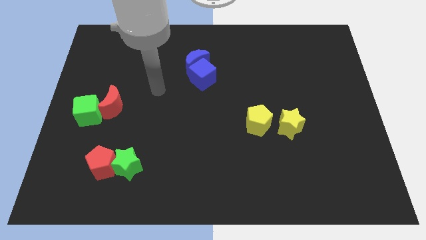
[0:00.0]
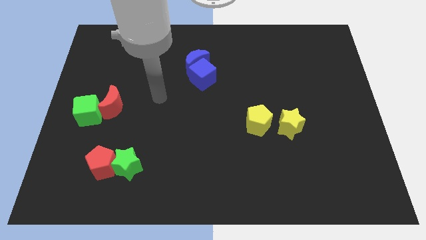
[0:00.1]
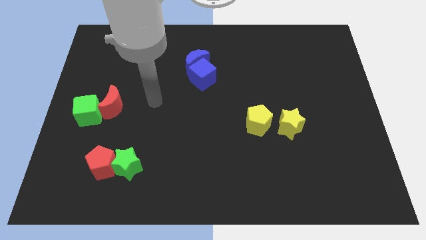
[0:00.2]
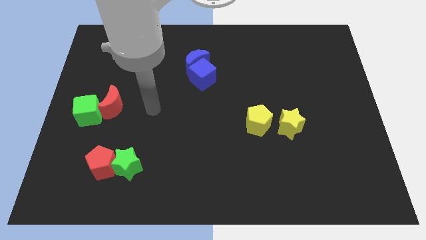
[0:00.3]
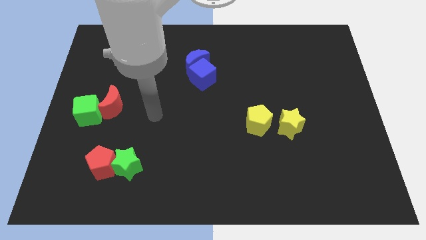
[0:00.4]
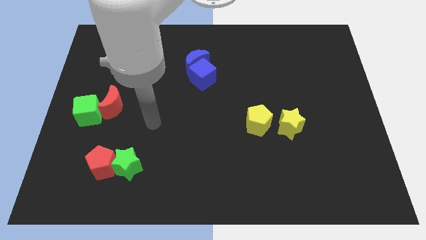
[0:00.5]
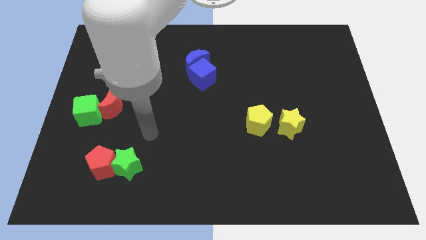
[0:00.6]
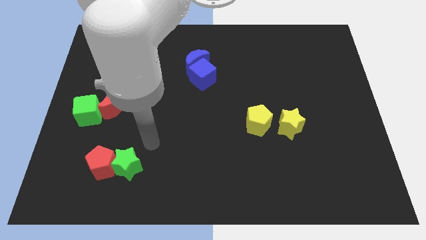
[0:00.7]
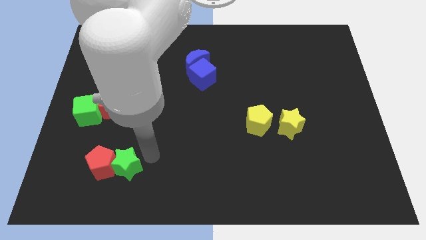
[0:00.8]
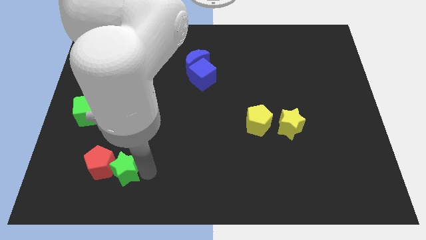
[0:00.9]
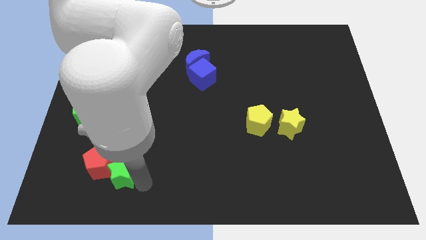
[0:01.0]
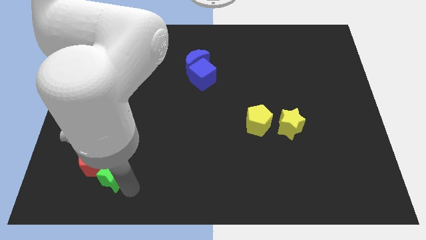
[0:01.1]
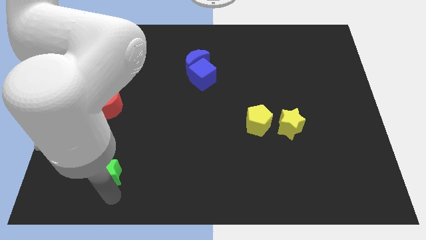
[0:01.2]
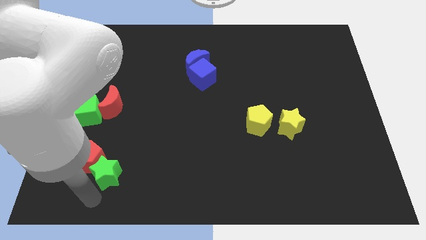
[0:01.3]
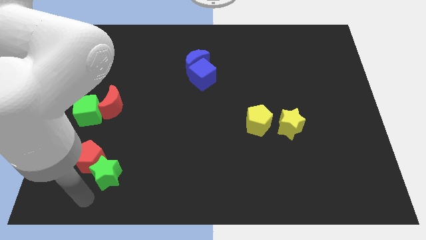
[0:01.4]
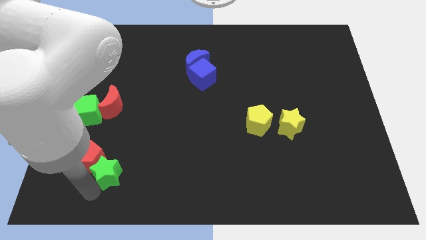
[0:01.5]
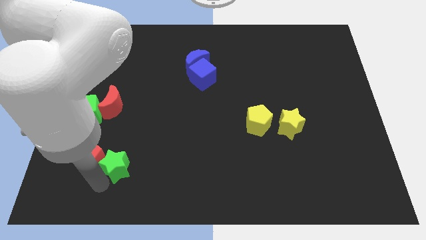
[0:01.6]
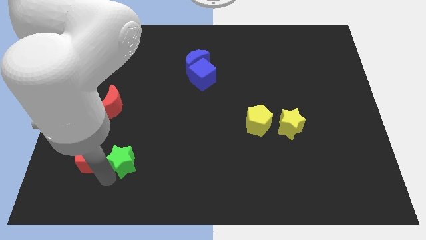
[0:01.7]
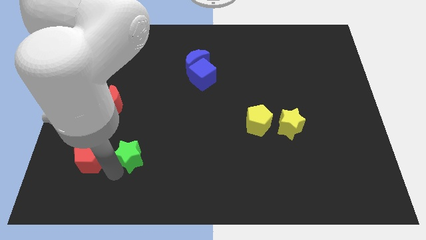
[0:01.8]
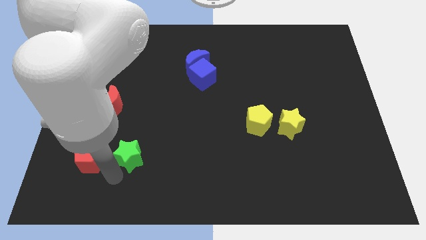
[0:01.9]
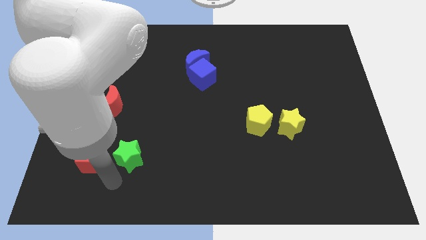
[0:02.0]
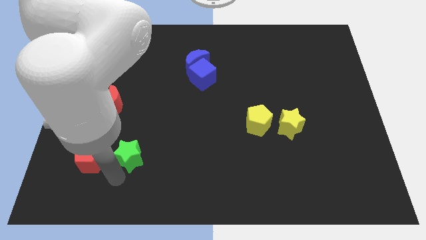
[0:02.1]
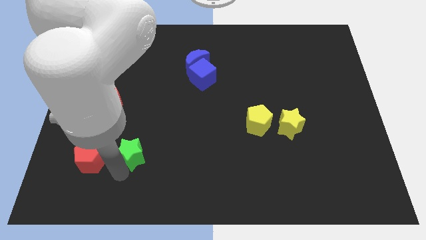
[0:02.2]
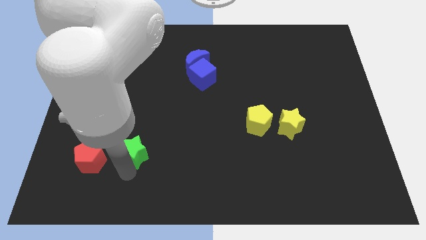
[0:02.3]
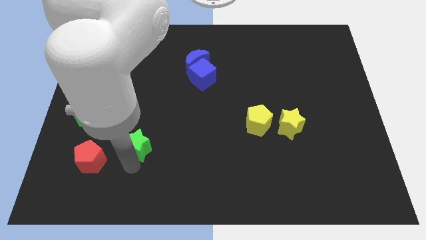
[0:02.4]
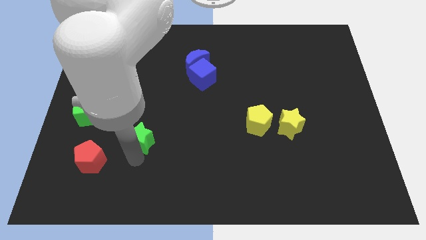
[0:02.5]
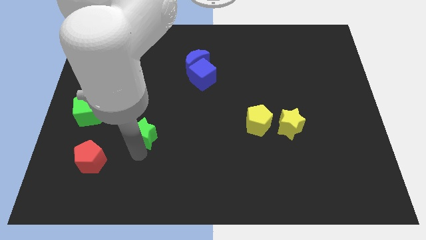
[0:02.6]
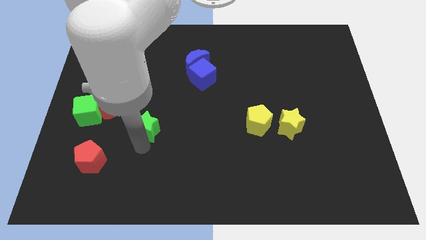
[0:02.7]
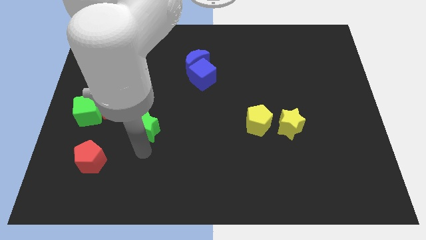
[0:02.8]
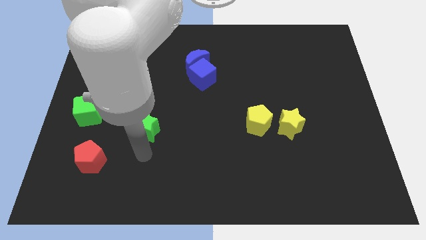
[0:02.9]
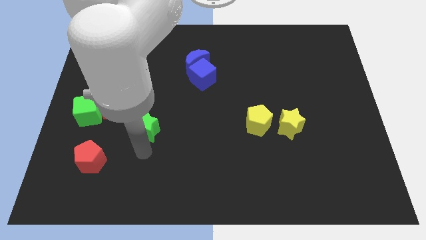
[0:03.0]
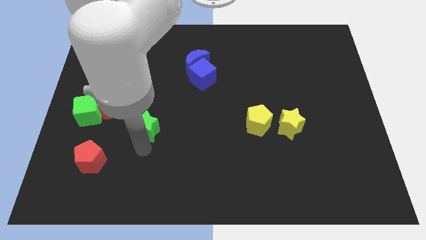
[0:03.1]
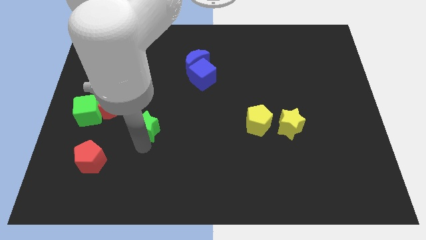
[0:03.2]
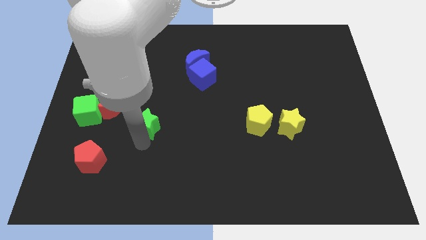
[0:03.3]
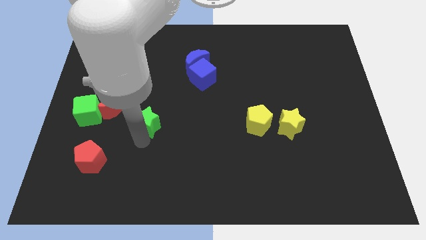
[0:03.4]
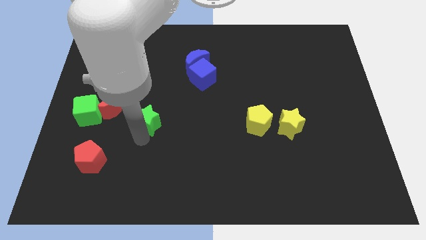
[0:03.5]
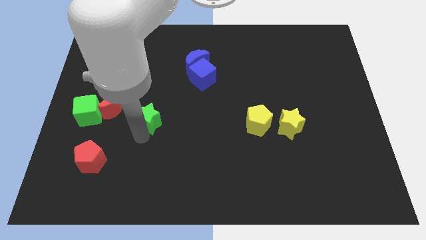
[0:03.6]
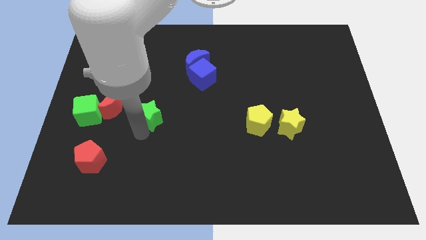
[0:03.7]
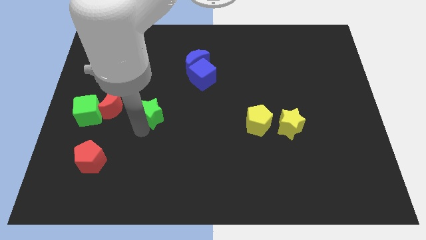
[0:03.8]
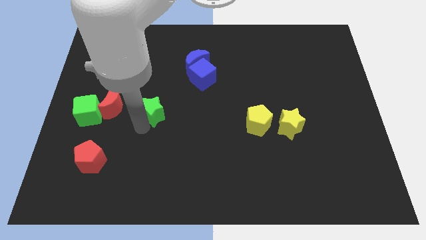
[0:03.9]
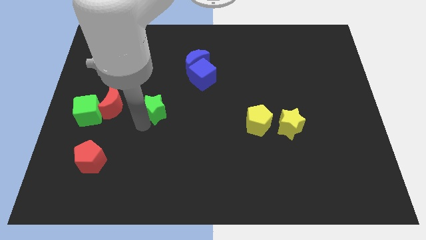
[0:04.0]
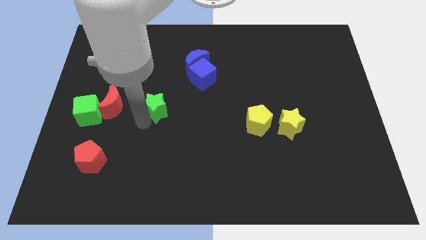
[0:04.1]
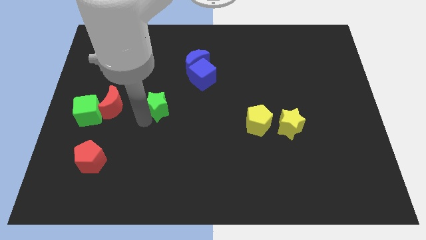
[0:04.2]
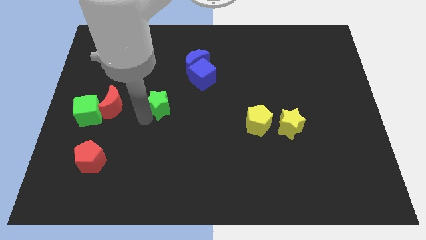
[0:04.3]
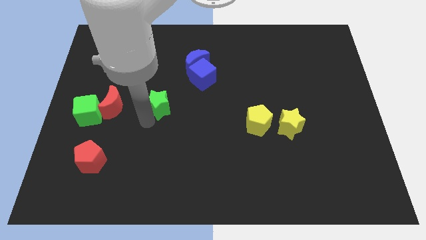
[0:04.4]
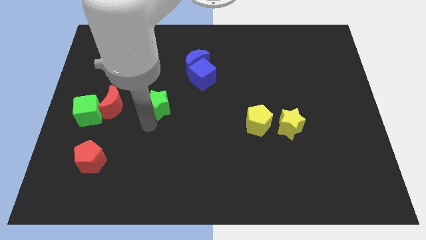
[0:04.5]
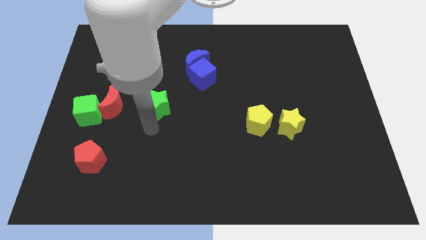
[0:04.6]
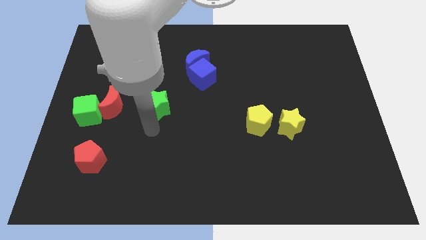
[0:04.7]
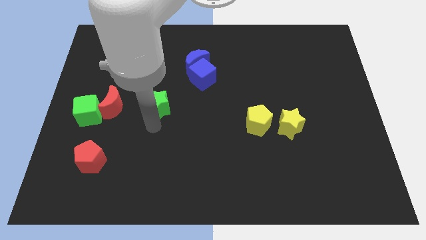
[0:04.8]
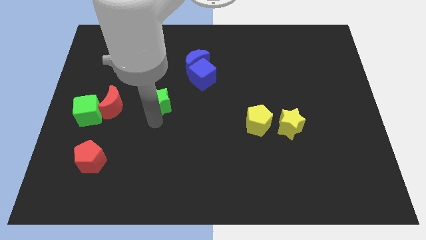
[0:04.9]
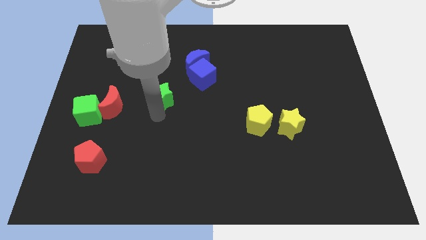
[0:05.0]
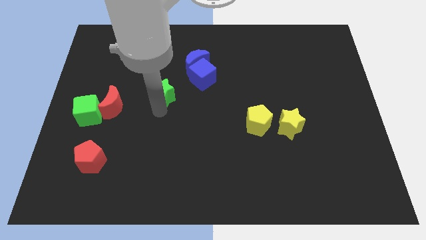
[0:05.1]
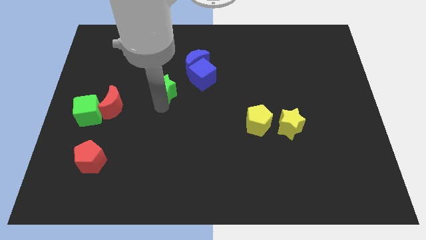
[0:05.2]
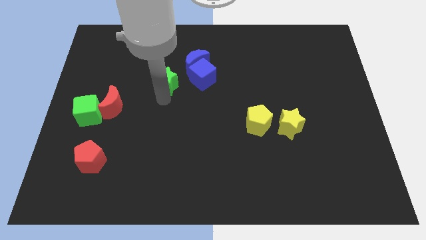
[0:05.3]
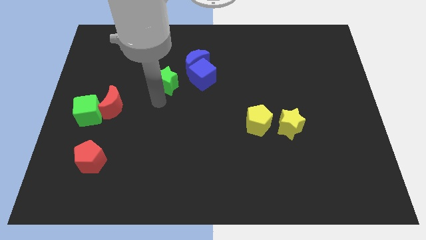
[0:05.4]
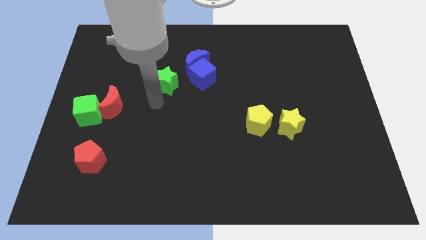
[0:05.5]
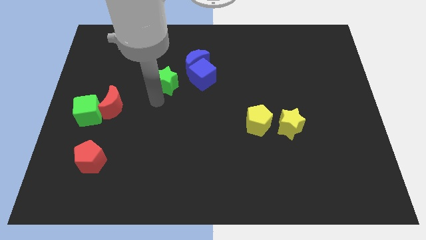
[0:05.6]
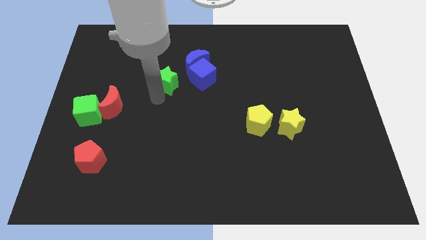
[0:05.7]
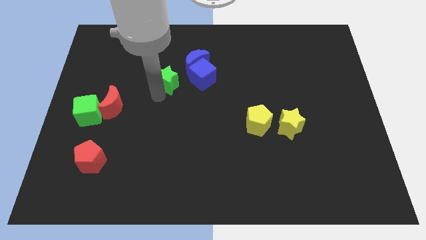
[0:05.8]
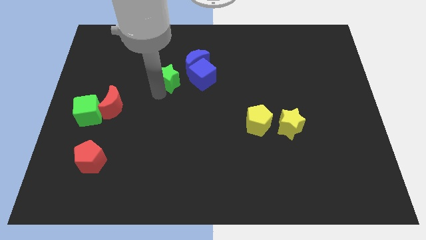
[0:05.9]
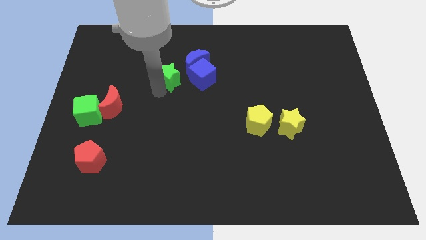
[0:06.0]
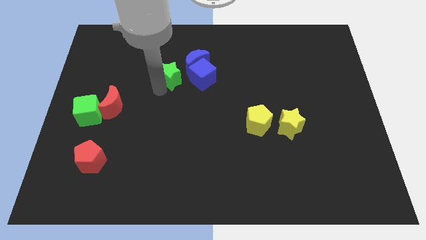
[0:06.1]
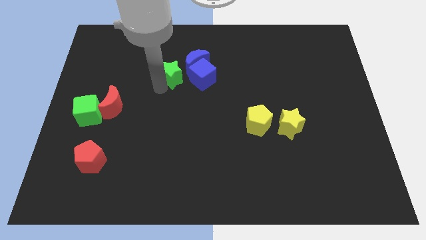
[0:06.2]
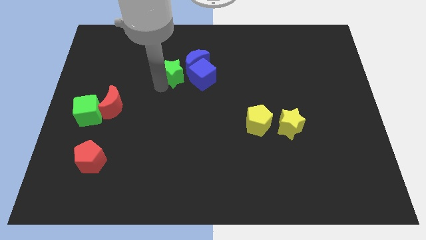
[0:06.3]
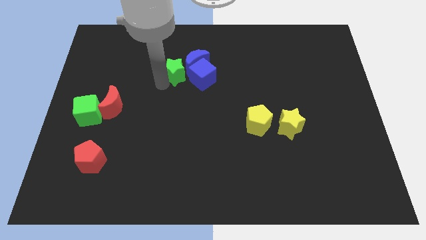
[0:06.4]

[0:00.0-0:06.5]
push the green star to the blue moon

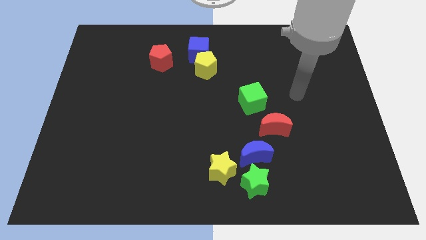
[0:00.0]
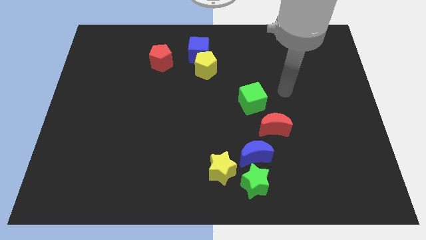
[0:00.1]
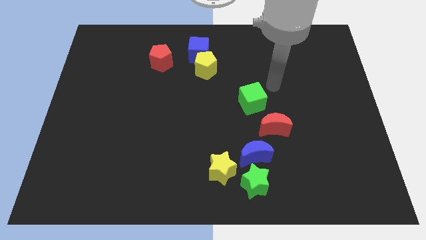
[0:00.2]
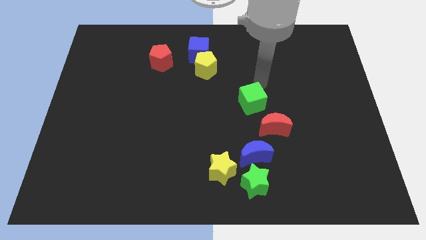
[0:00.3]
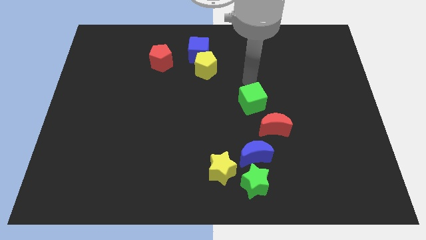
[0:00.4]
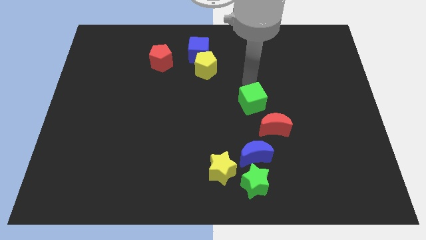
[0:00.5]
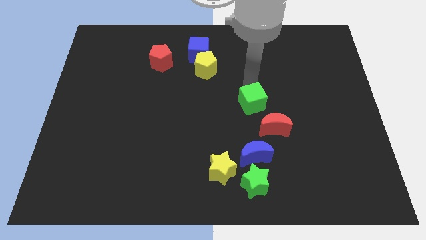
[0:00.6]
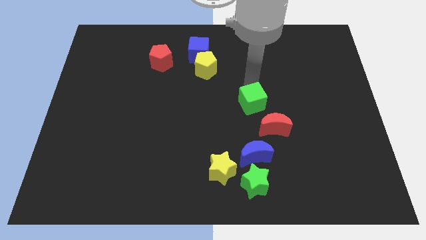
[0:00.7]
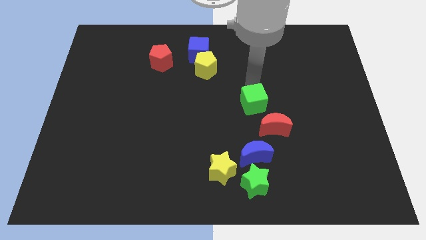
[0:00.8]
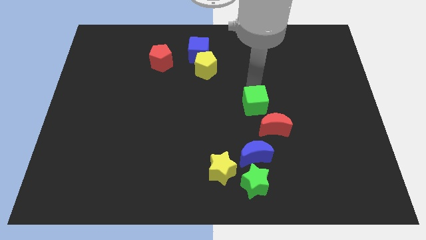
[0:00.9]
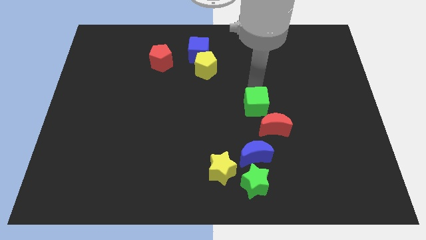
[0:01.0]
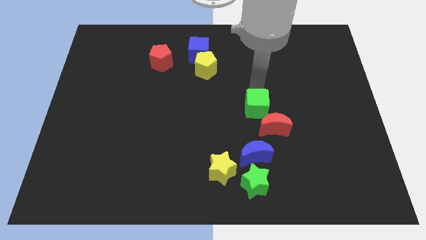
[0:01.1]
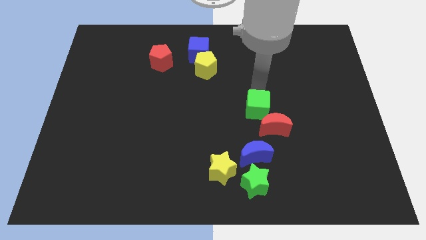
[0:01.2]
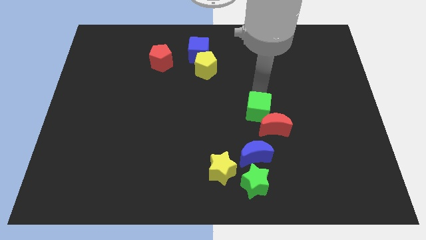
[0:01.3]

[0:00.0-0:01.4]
put the green cube next to the red moon

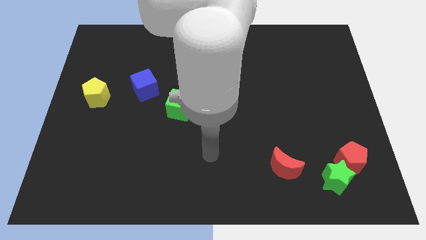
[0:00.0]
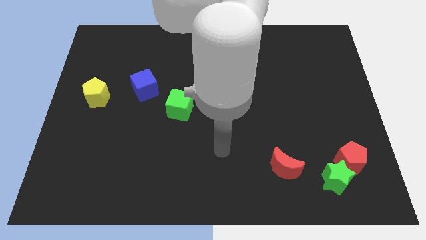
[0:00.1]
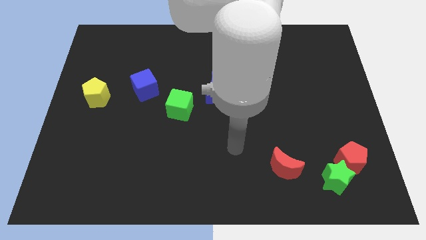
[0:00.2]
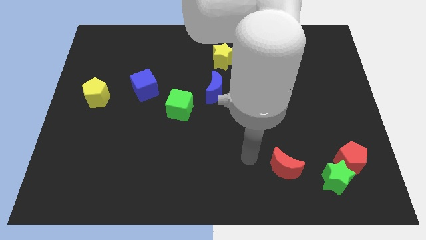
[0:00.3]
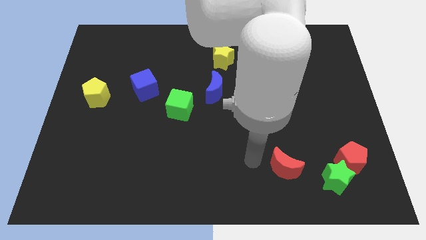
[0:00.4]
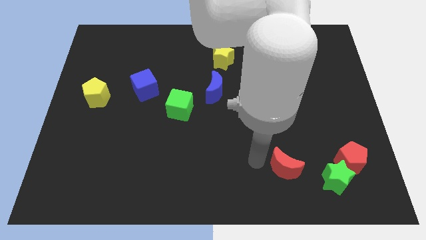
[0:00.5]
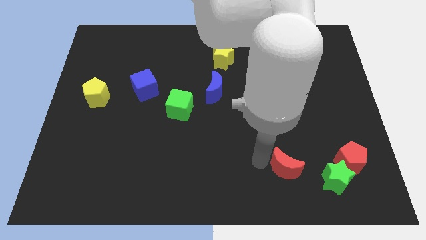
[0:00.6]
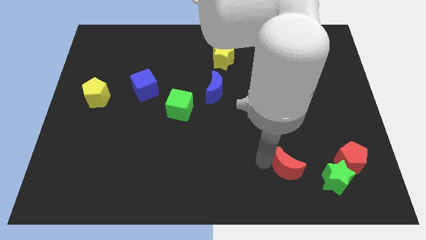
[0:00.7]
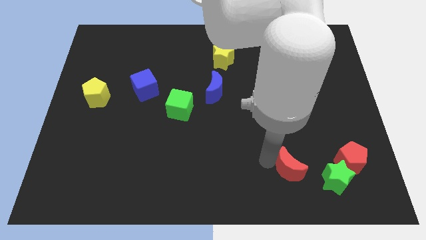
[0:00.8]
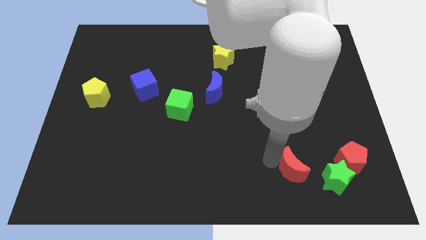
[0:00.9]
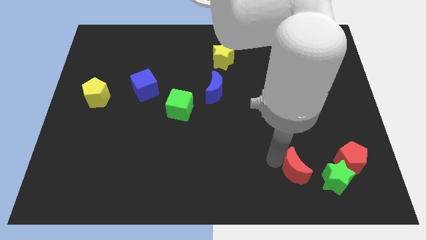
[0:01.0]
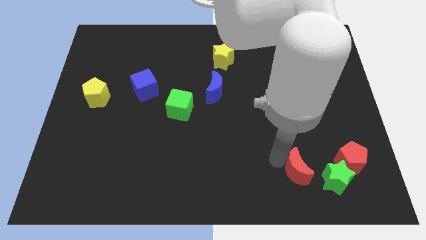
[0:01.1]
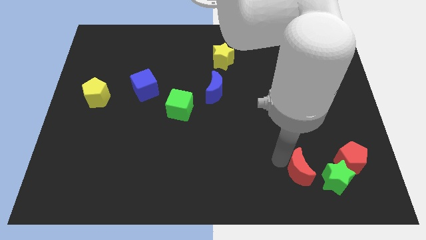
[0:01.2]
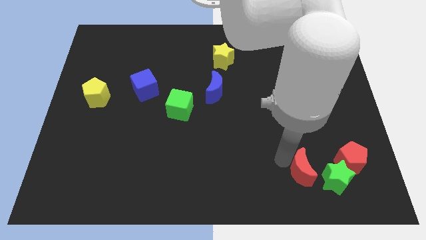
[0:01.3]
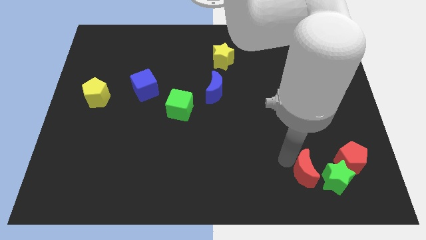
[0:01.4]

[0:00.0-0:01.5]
put the red moon to the green star
